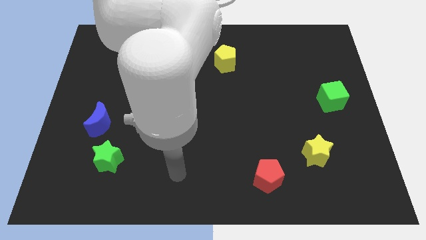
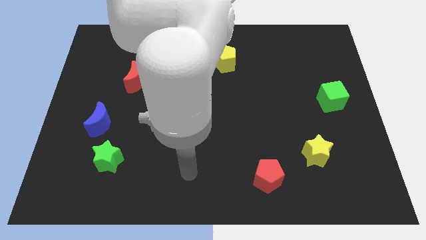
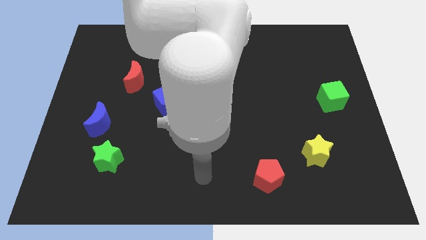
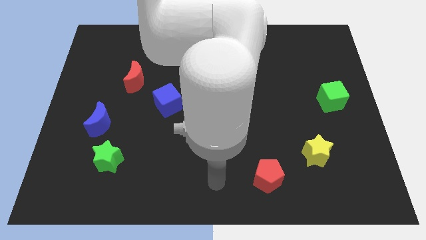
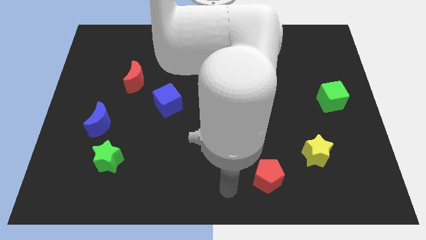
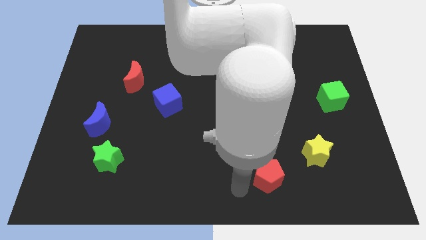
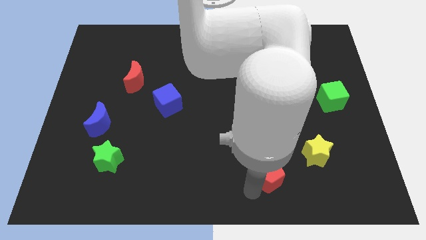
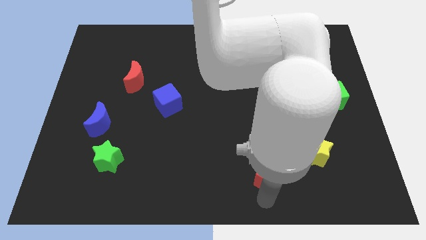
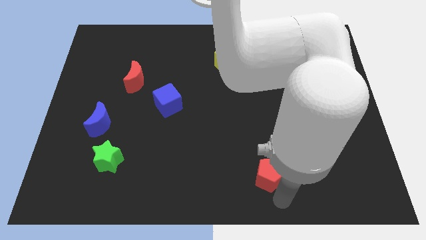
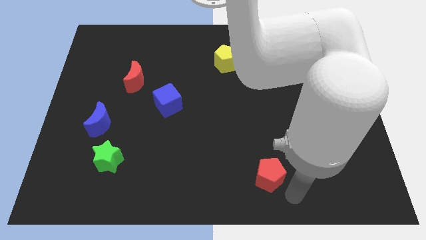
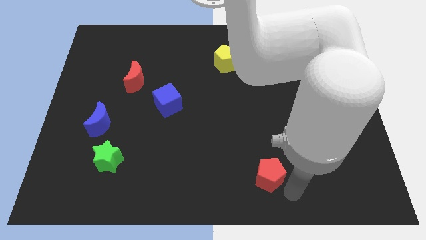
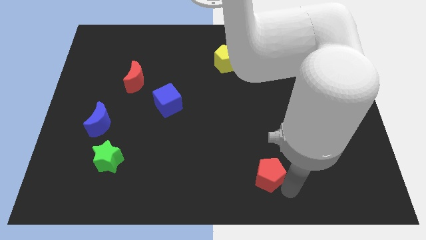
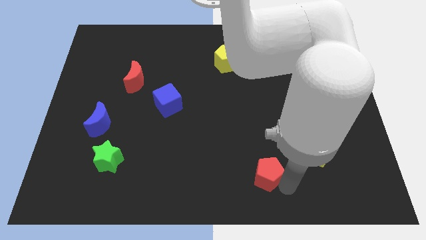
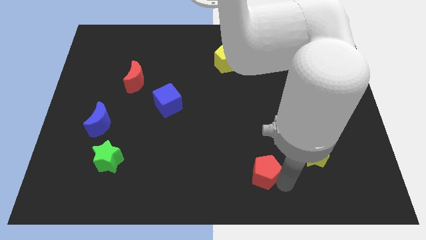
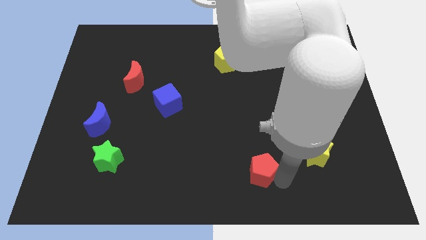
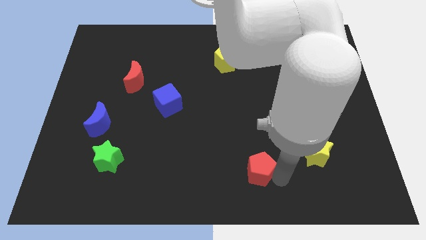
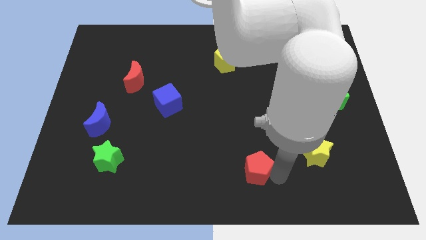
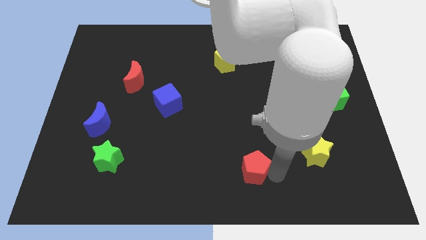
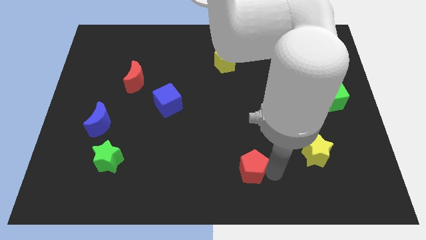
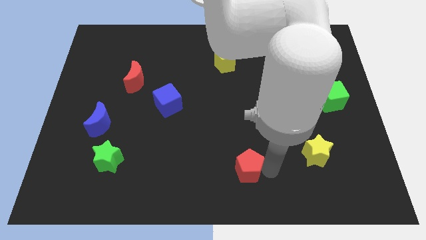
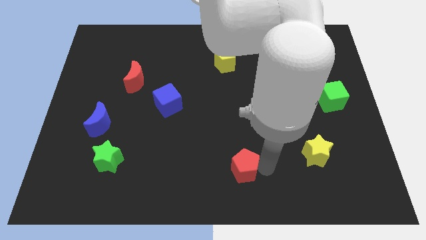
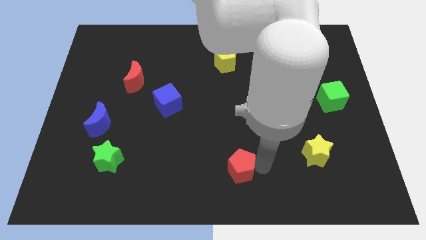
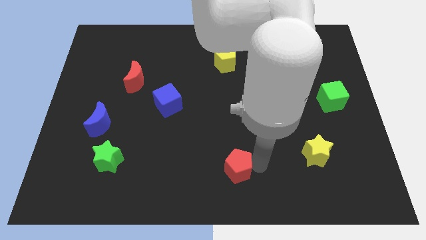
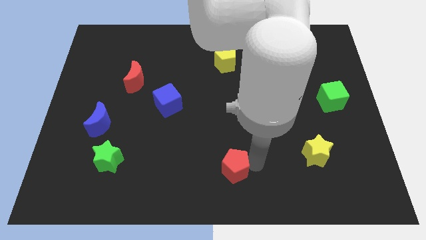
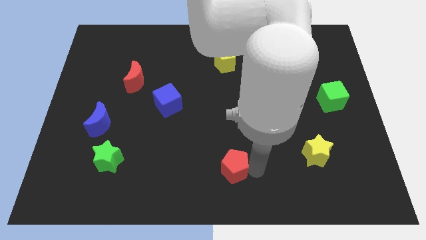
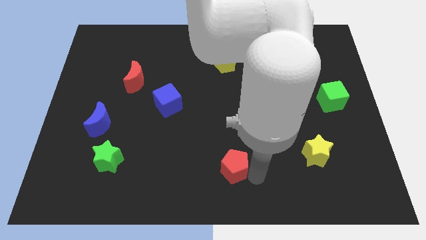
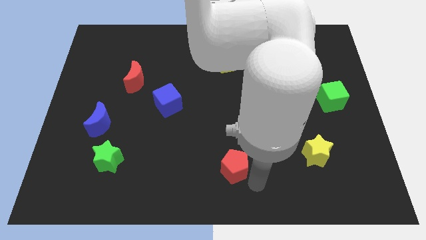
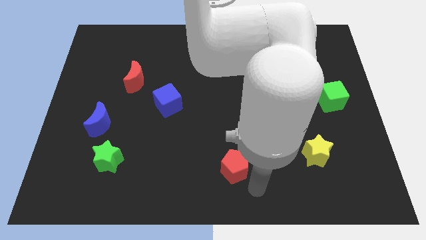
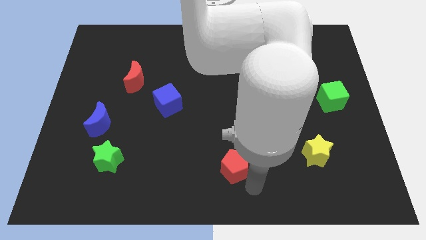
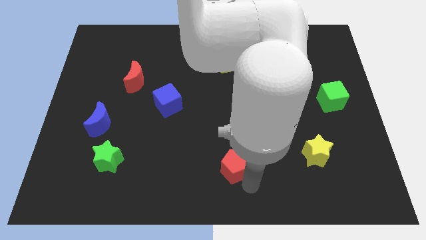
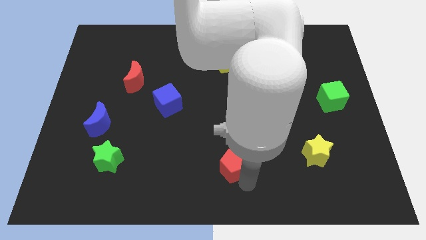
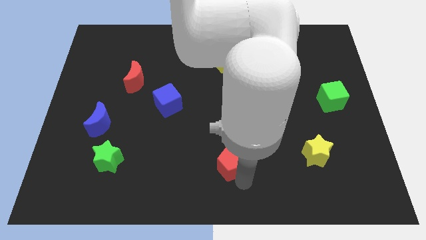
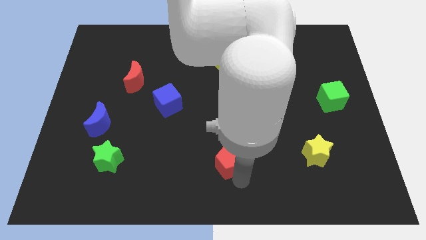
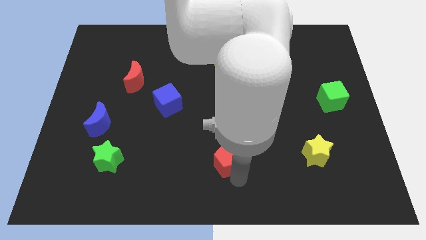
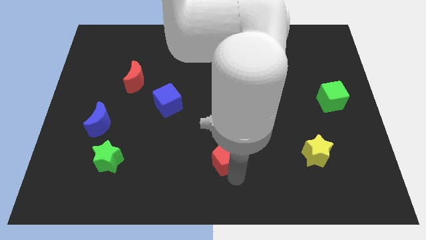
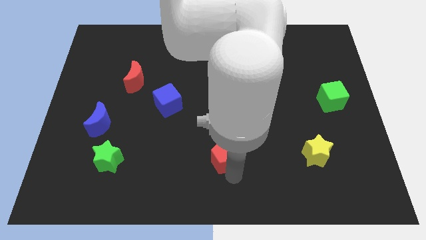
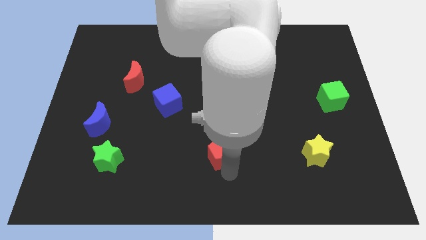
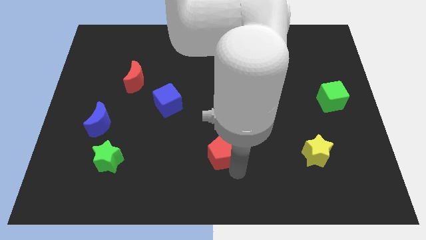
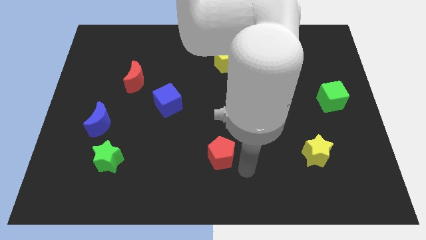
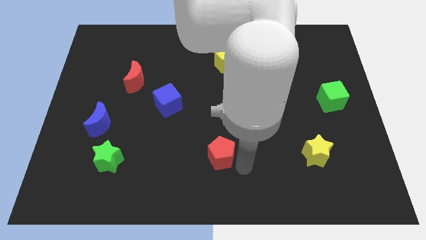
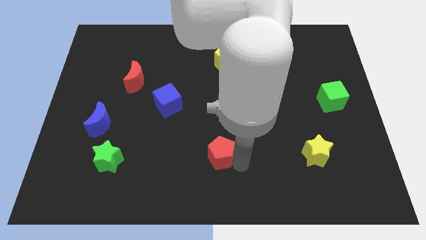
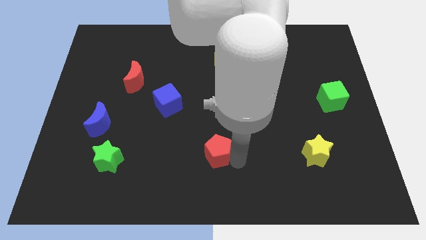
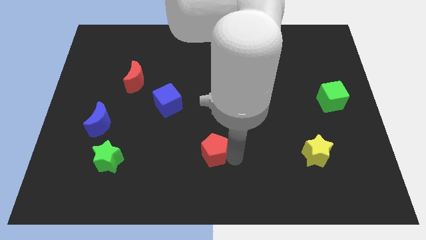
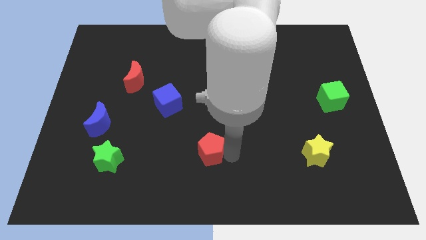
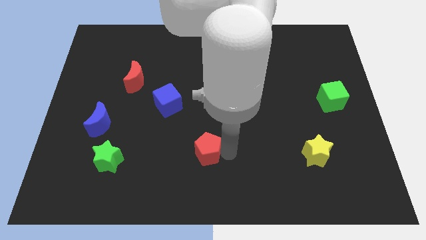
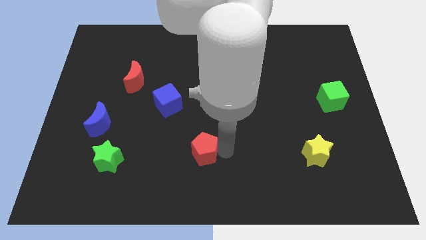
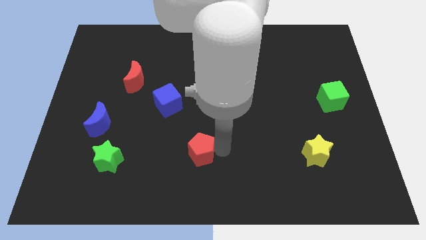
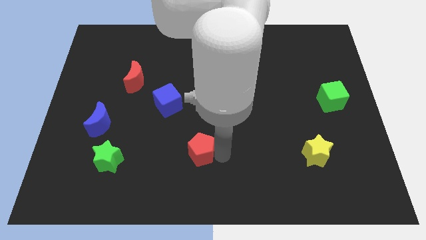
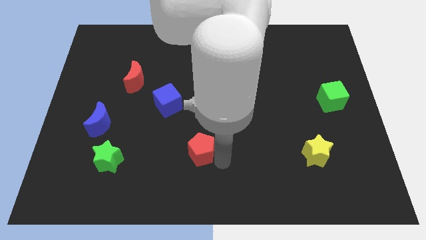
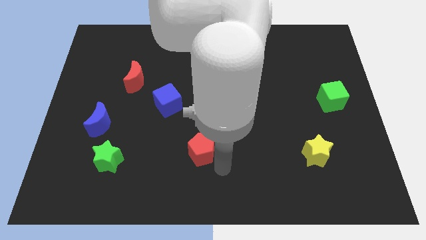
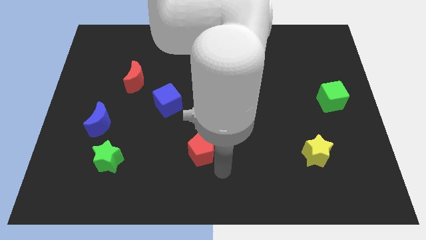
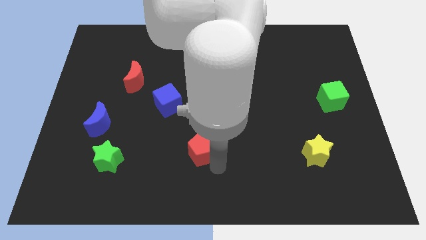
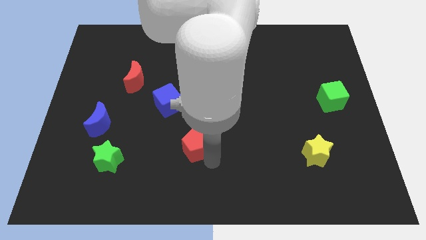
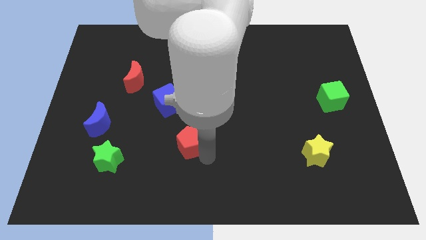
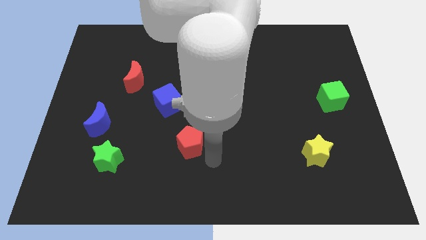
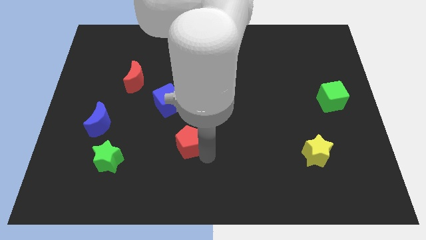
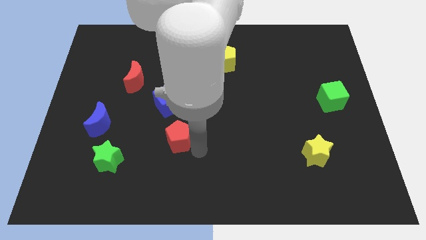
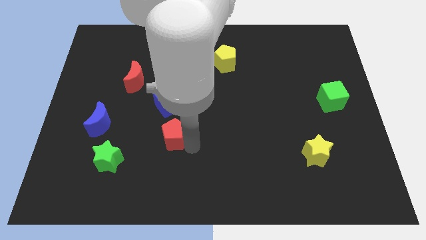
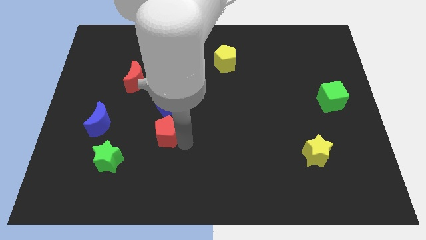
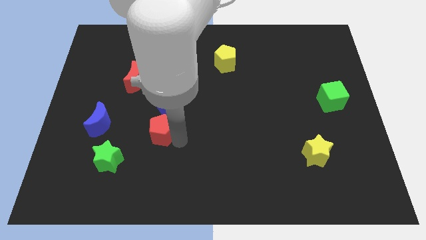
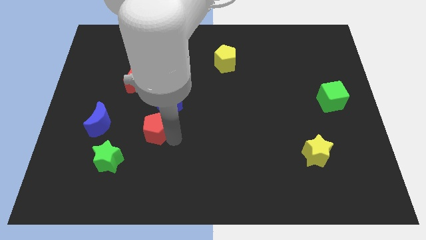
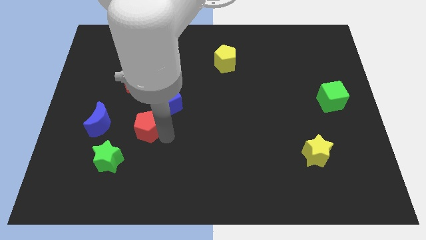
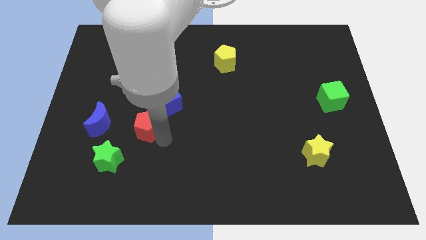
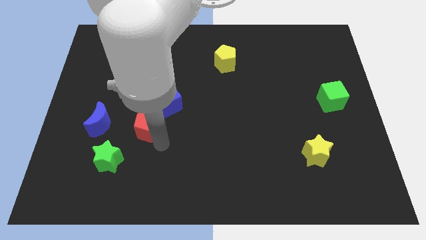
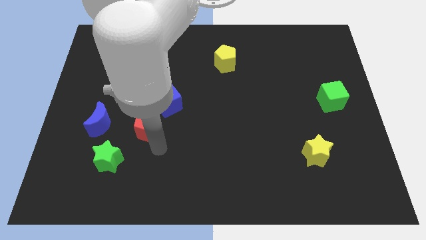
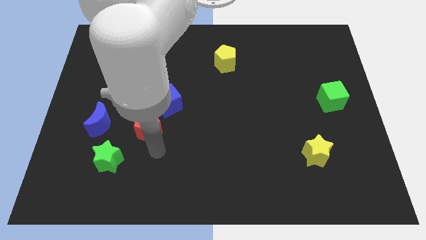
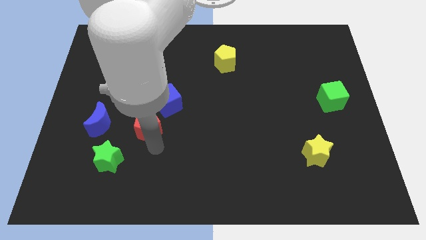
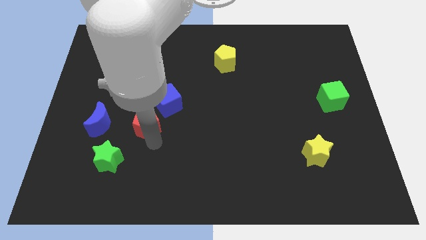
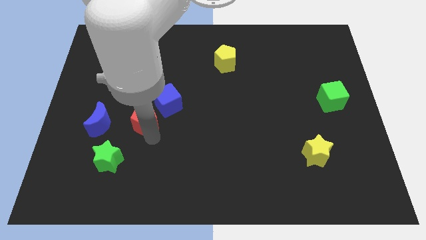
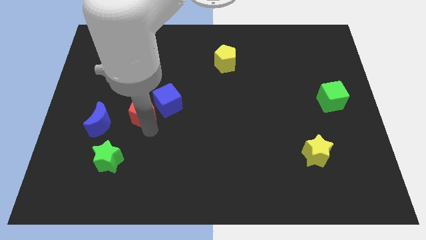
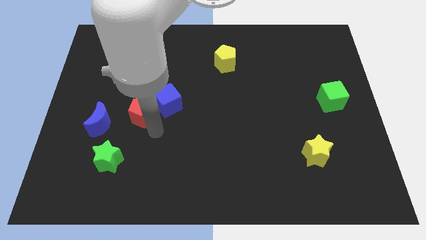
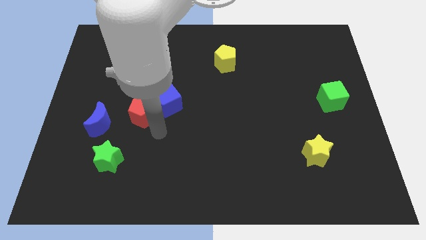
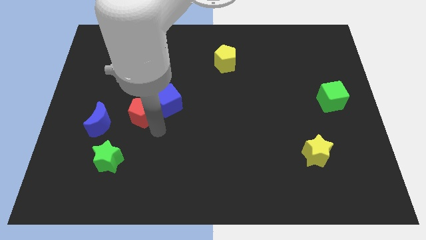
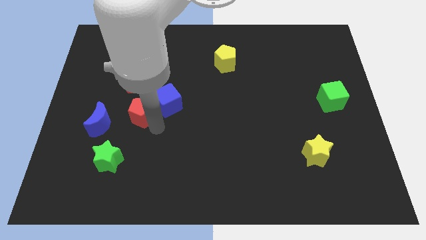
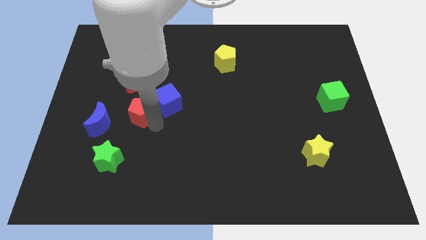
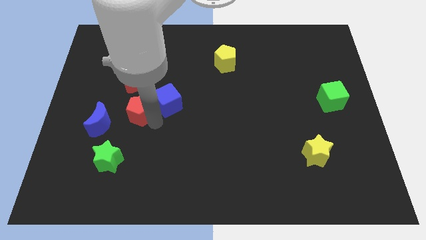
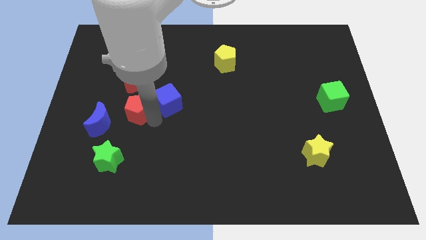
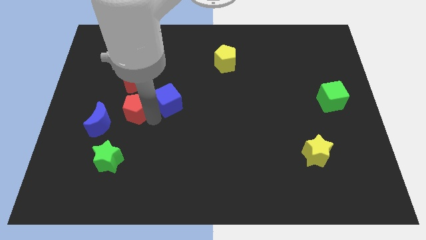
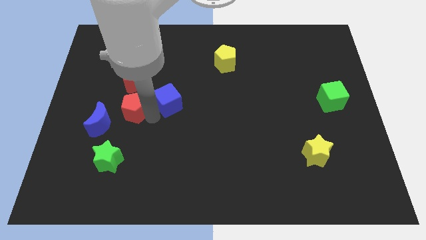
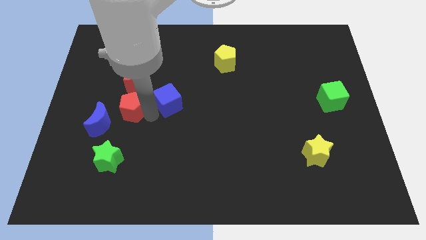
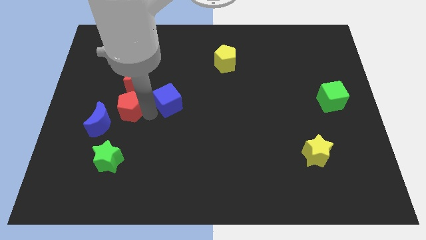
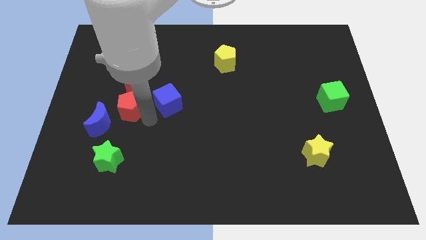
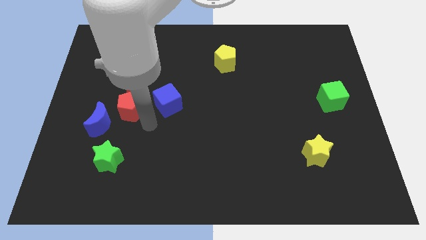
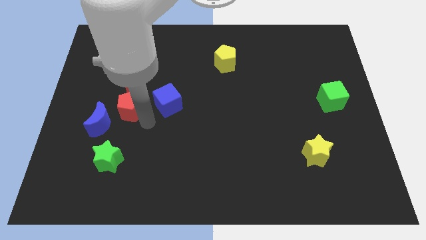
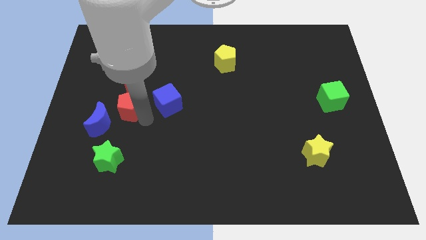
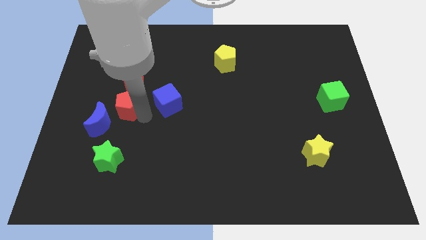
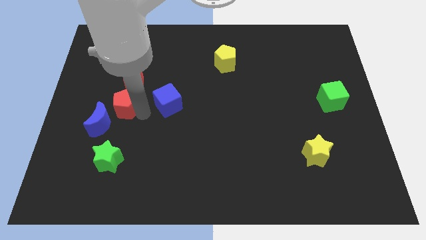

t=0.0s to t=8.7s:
slide the red pentagon to the top side of the blue moon
